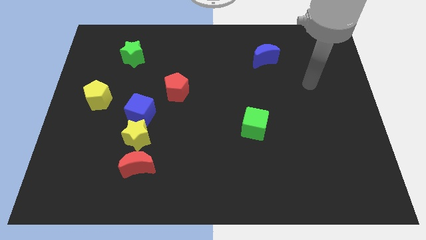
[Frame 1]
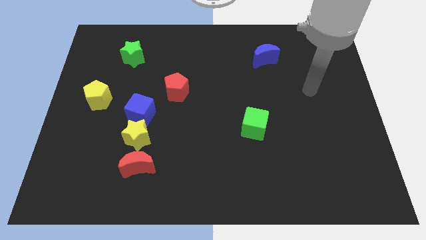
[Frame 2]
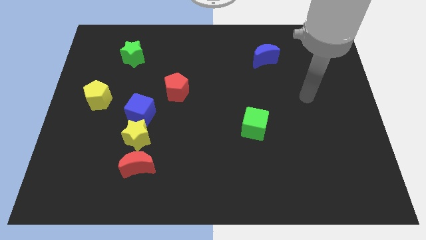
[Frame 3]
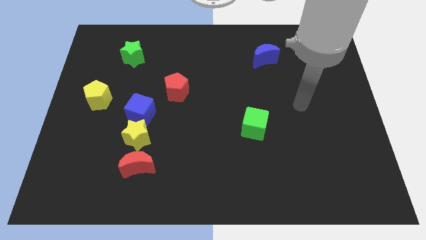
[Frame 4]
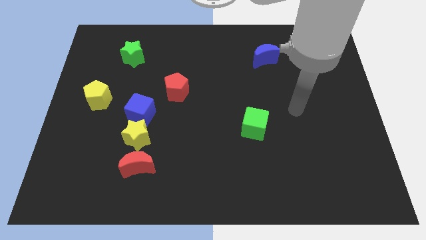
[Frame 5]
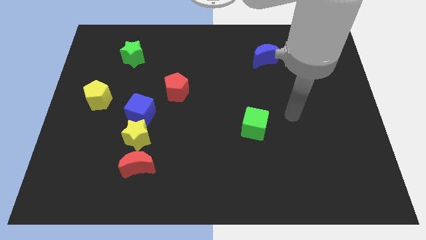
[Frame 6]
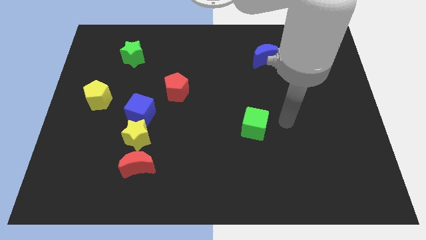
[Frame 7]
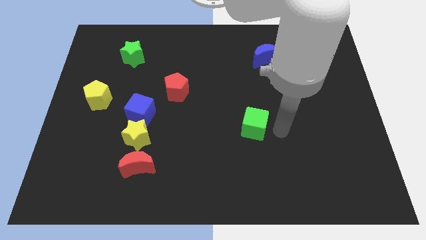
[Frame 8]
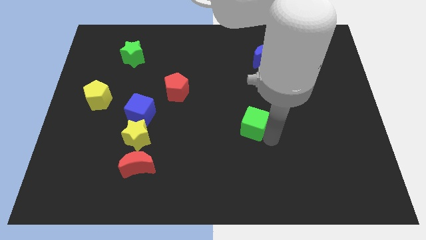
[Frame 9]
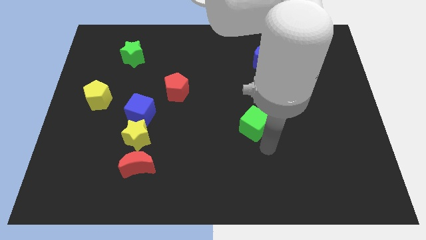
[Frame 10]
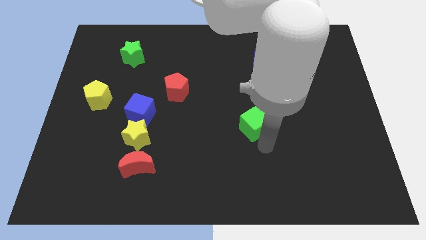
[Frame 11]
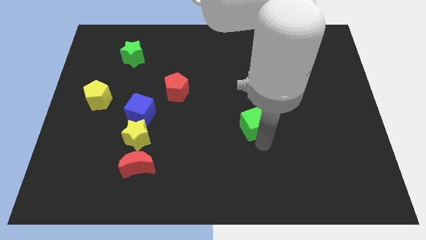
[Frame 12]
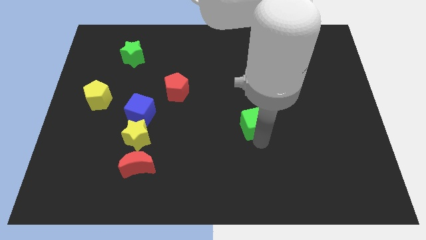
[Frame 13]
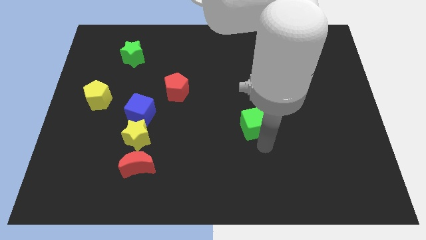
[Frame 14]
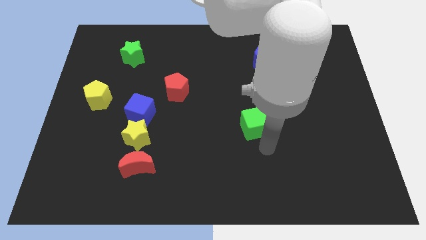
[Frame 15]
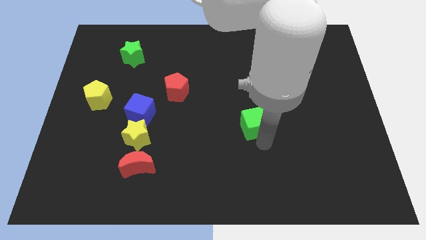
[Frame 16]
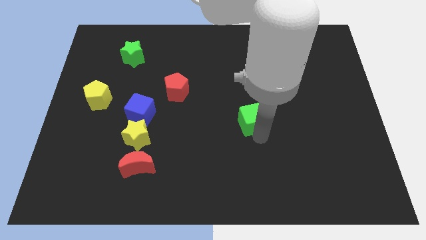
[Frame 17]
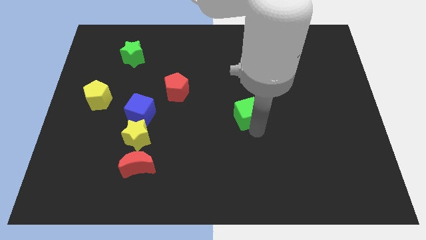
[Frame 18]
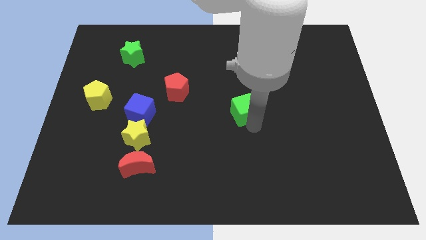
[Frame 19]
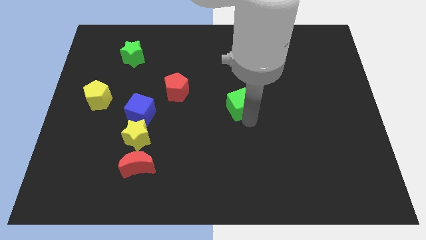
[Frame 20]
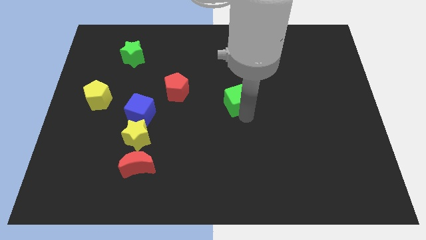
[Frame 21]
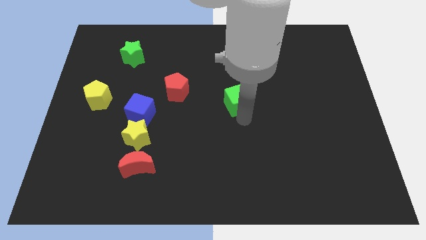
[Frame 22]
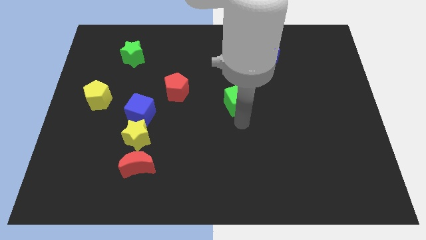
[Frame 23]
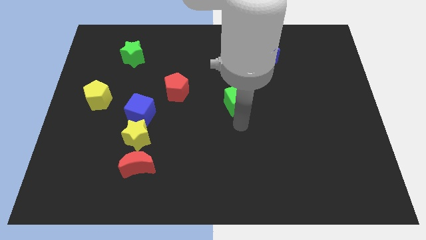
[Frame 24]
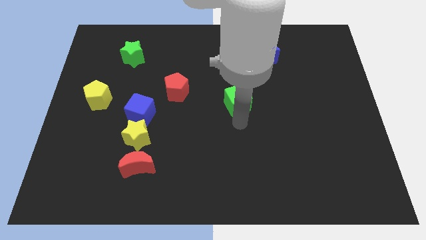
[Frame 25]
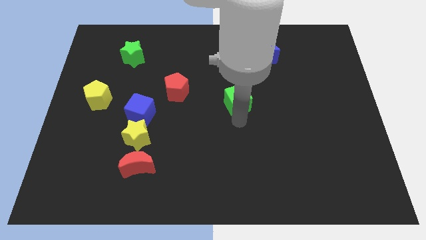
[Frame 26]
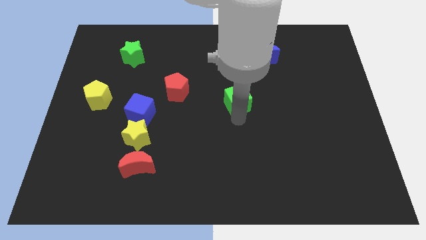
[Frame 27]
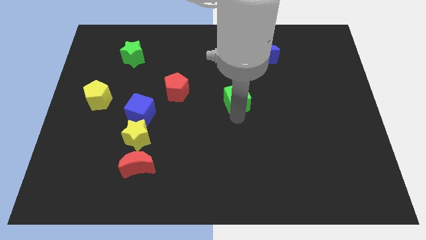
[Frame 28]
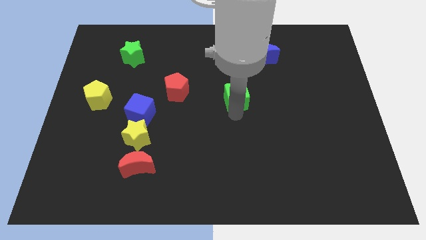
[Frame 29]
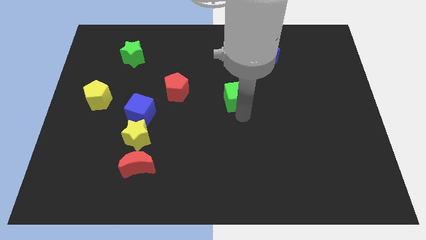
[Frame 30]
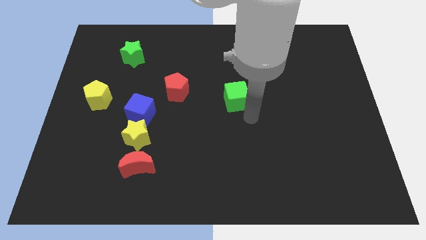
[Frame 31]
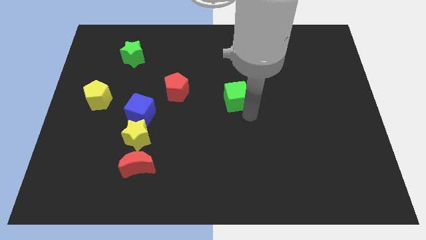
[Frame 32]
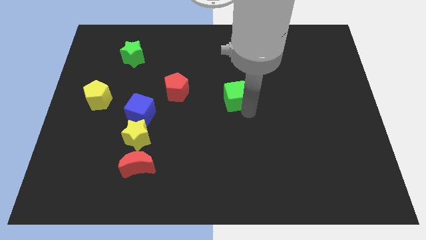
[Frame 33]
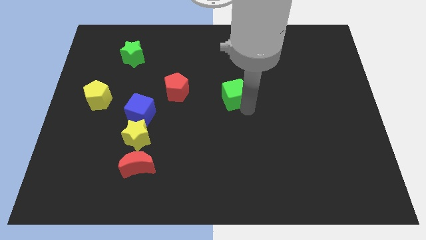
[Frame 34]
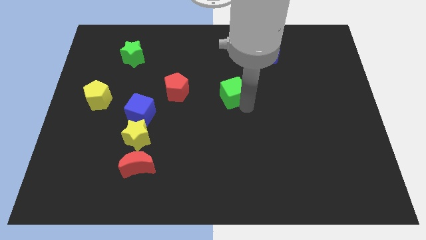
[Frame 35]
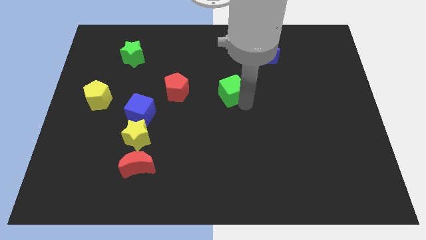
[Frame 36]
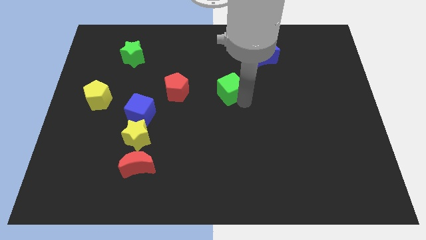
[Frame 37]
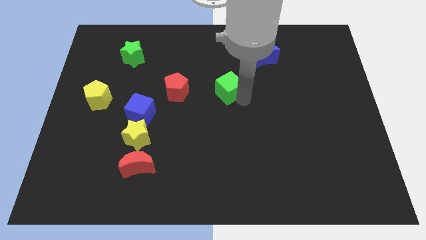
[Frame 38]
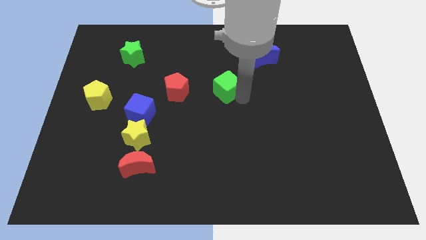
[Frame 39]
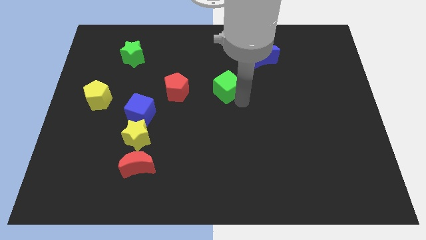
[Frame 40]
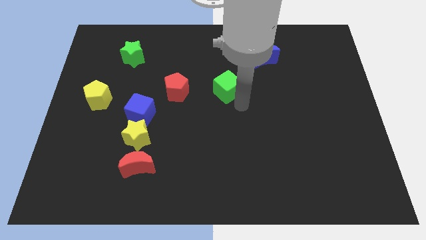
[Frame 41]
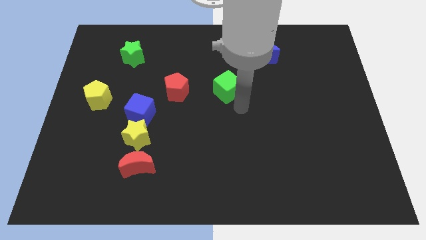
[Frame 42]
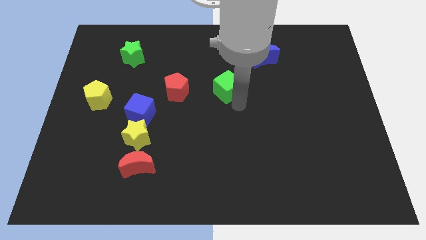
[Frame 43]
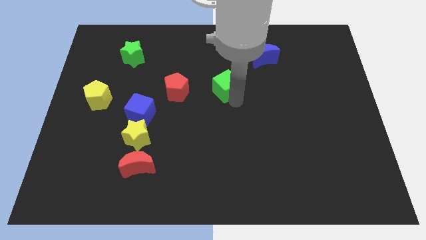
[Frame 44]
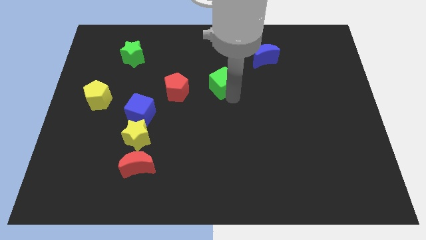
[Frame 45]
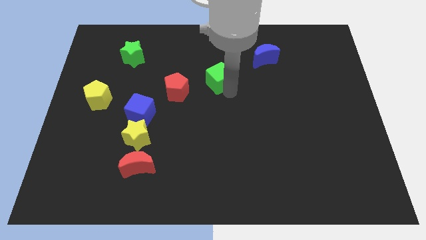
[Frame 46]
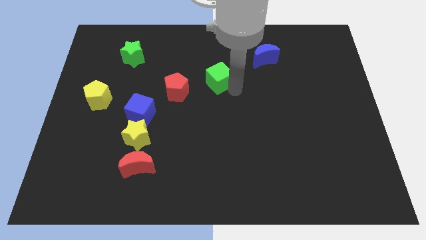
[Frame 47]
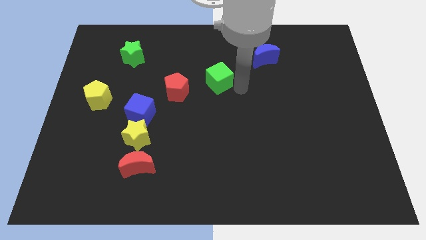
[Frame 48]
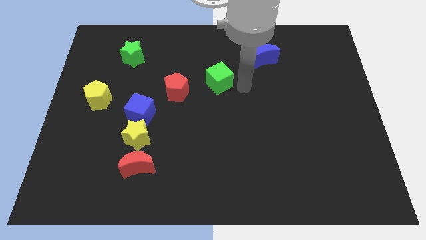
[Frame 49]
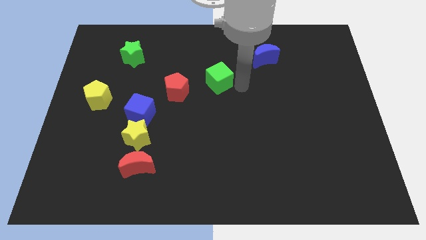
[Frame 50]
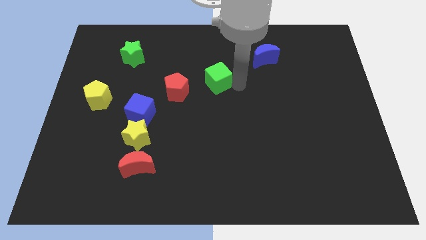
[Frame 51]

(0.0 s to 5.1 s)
move the green cube diagonally up and to the right of the red pentagon

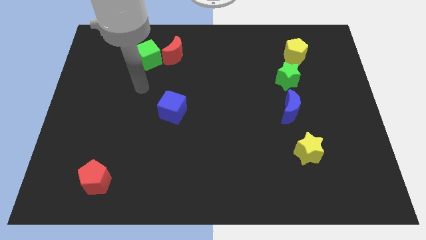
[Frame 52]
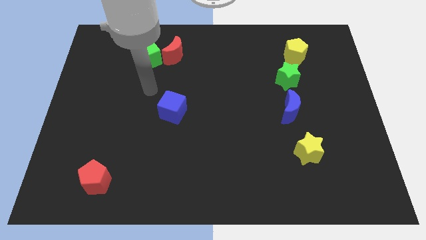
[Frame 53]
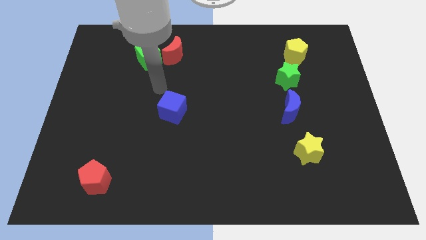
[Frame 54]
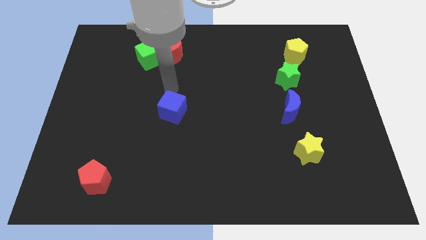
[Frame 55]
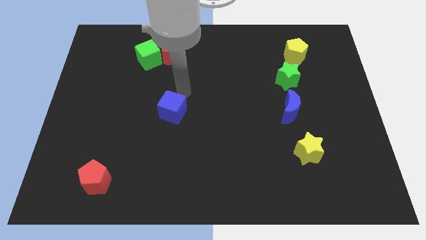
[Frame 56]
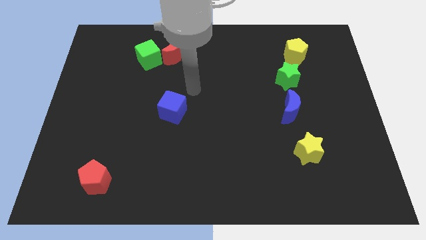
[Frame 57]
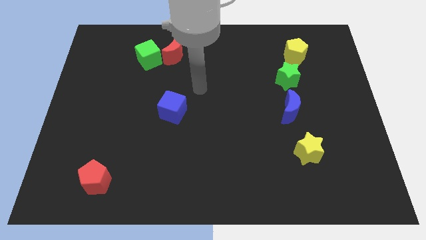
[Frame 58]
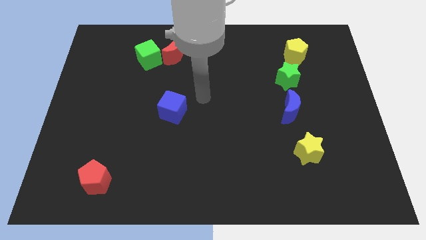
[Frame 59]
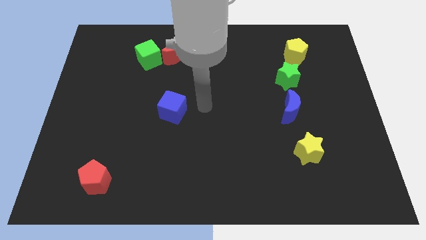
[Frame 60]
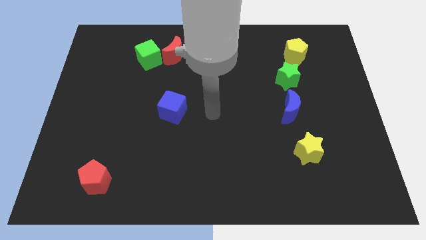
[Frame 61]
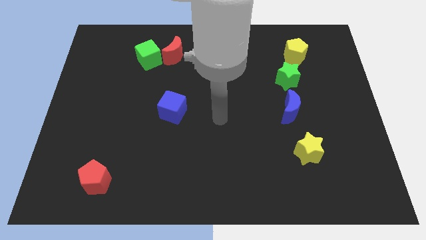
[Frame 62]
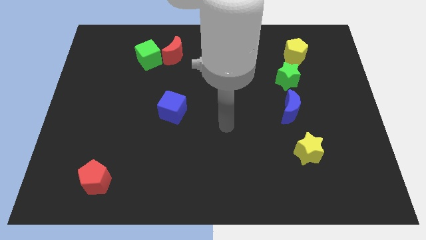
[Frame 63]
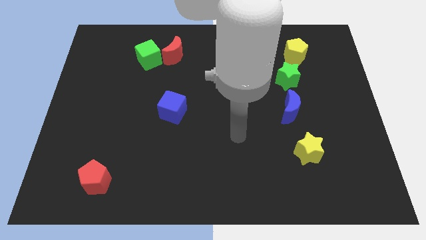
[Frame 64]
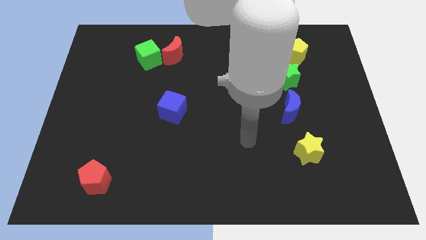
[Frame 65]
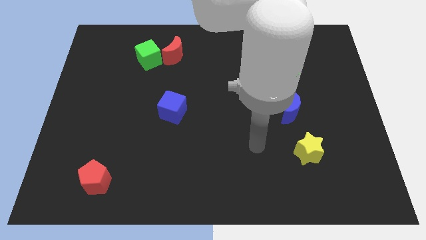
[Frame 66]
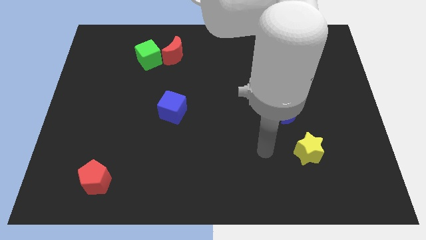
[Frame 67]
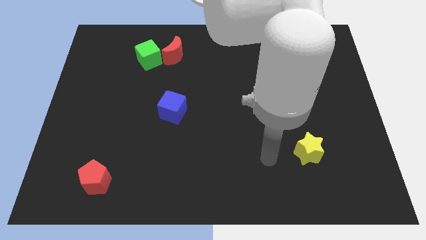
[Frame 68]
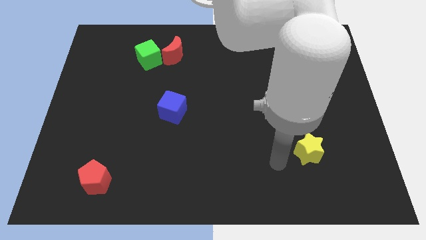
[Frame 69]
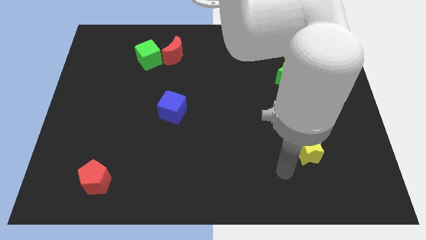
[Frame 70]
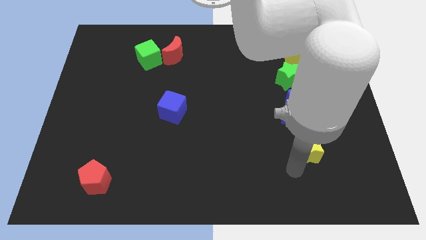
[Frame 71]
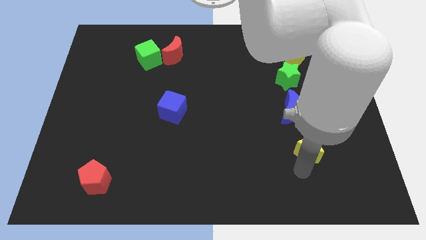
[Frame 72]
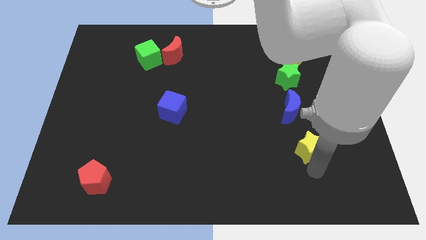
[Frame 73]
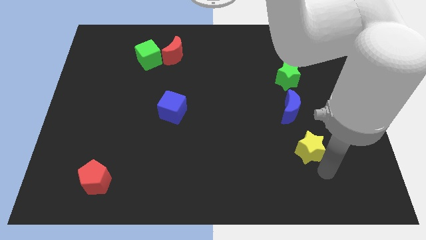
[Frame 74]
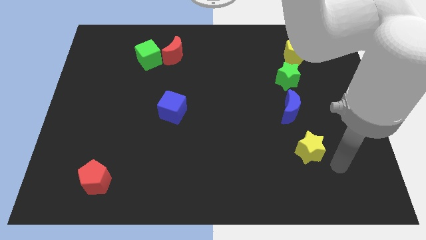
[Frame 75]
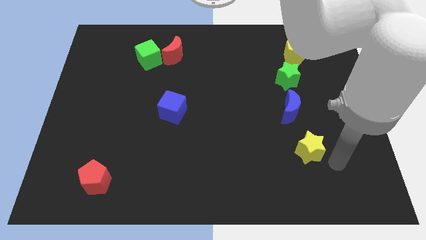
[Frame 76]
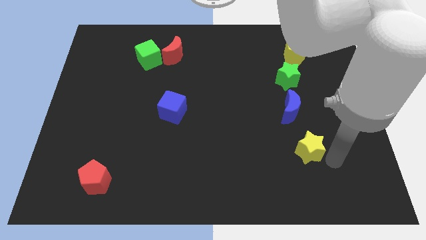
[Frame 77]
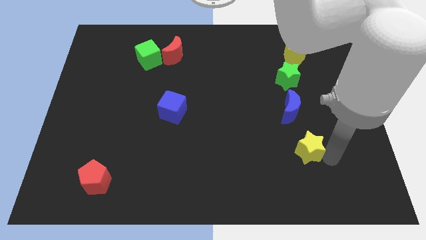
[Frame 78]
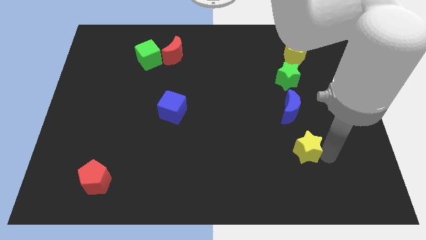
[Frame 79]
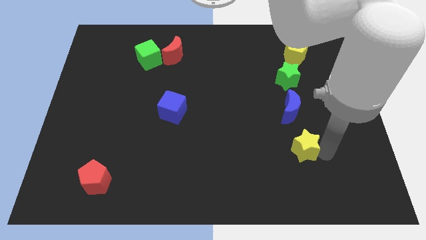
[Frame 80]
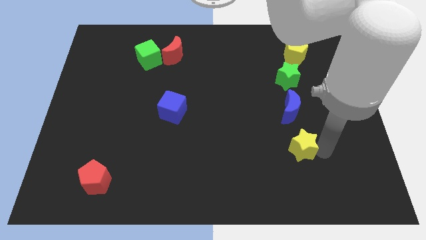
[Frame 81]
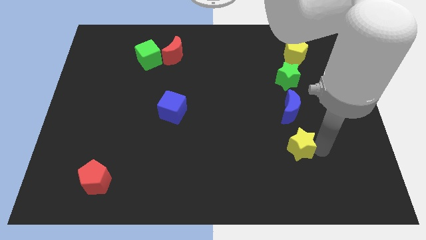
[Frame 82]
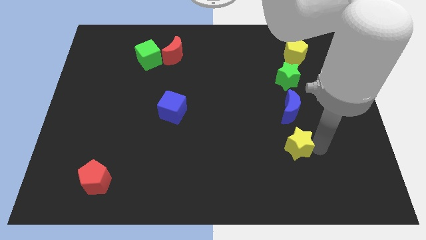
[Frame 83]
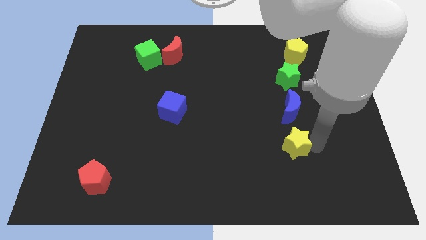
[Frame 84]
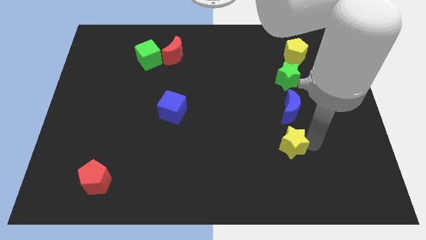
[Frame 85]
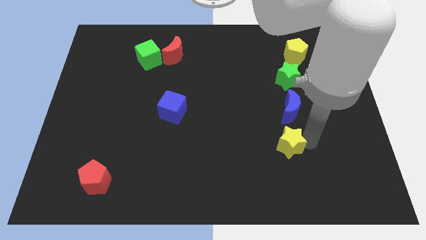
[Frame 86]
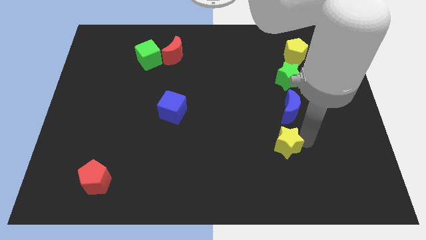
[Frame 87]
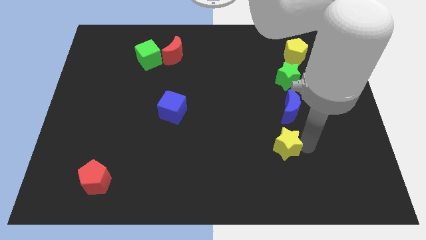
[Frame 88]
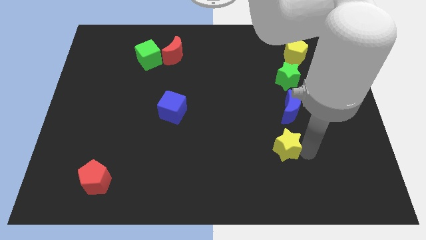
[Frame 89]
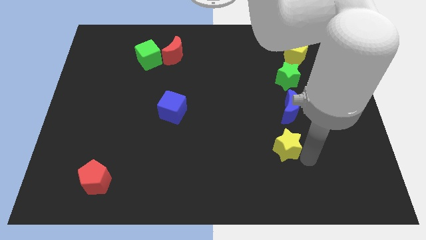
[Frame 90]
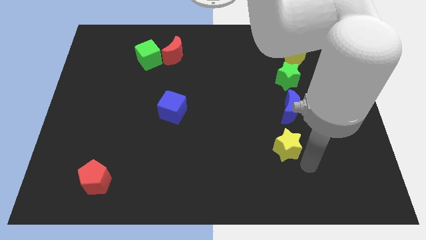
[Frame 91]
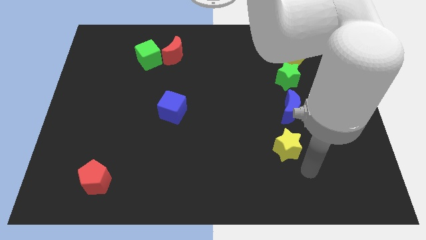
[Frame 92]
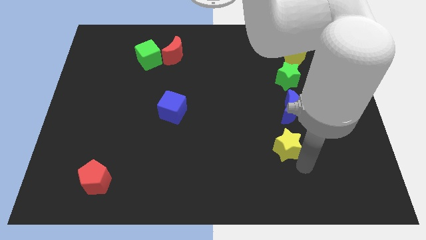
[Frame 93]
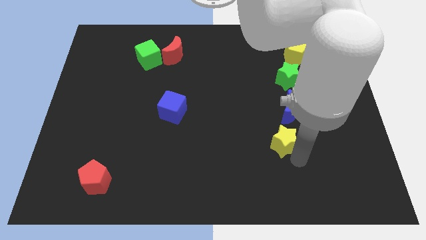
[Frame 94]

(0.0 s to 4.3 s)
put the yellow star to the bottom left of the blue moon
